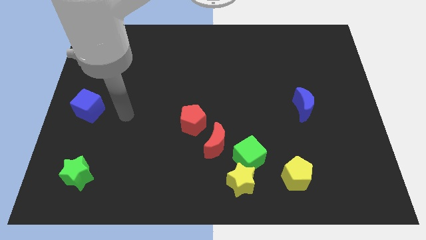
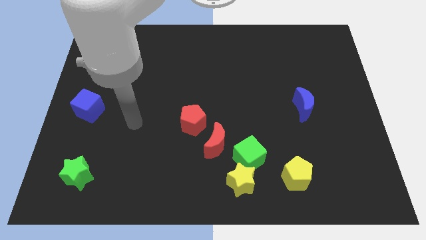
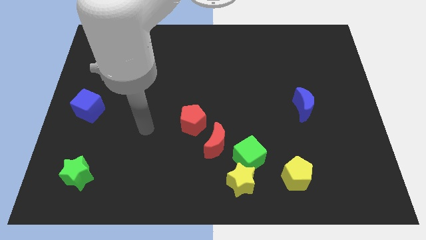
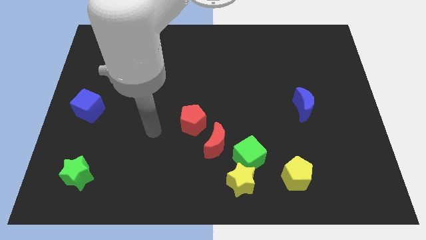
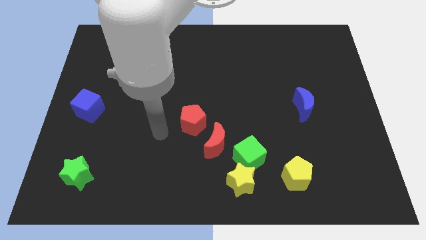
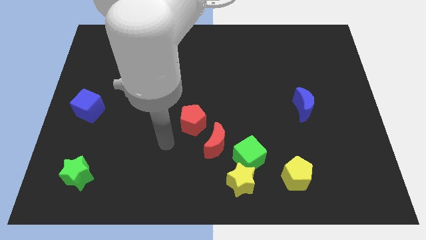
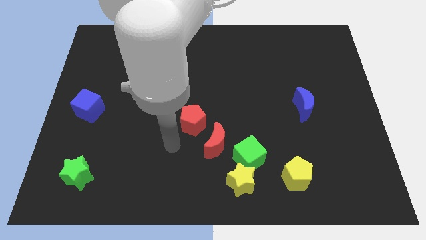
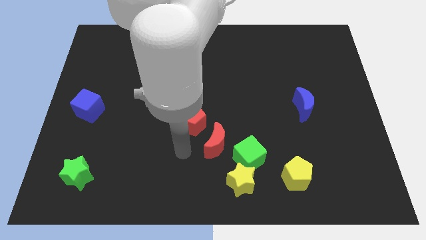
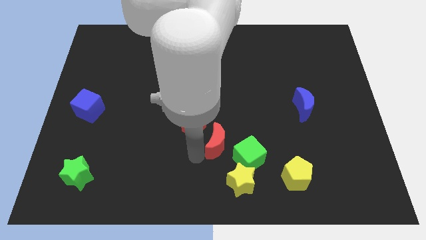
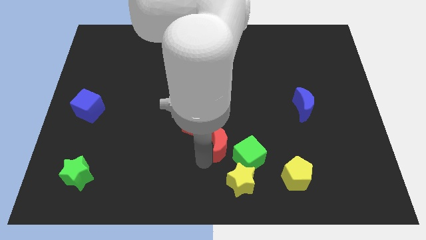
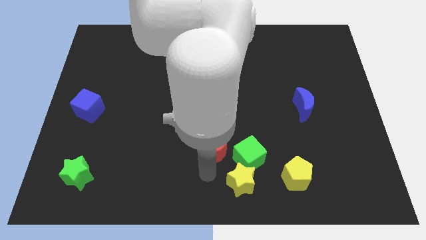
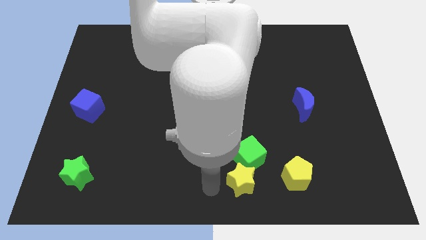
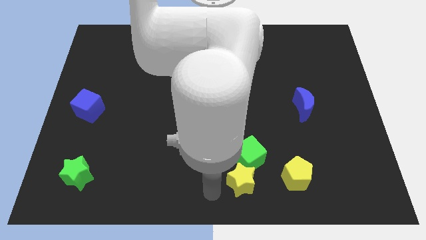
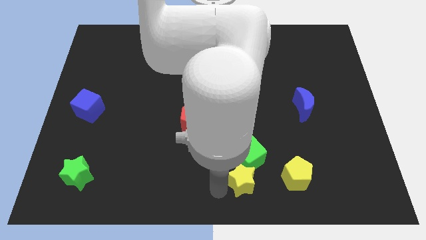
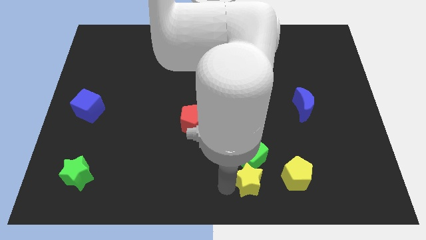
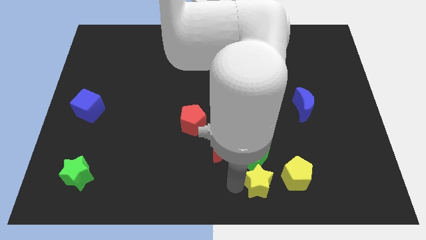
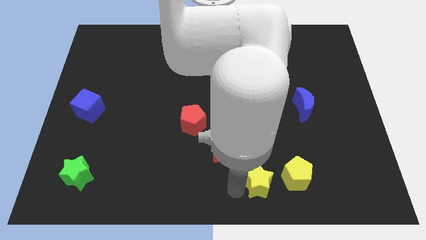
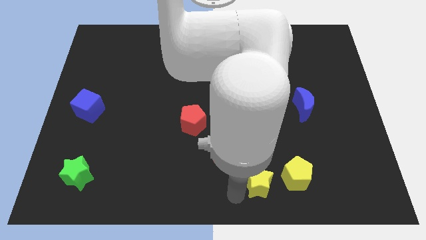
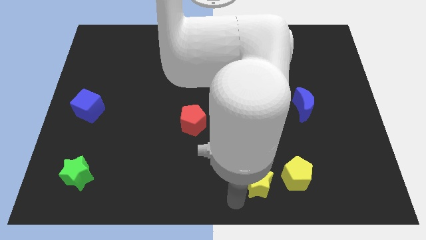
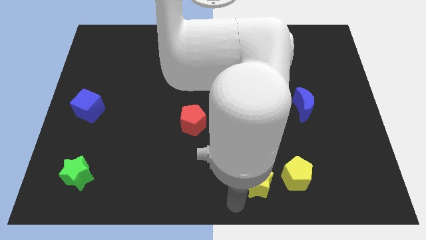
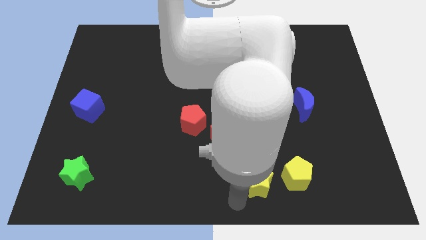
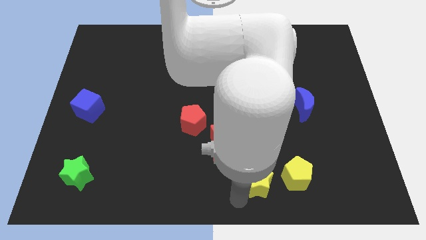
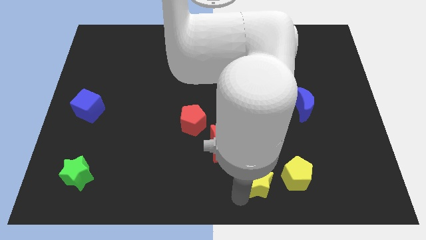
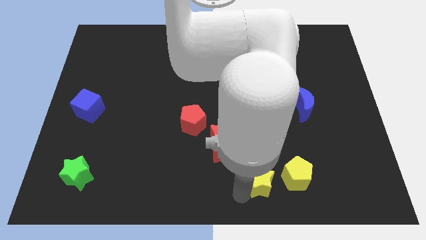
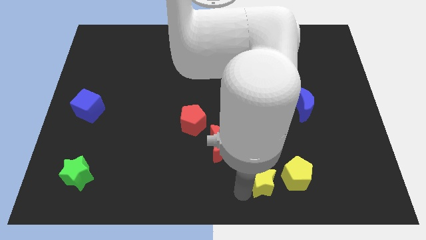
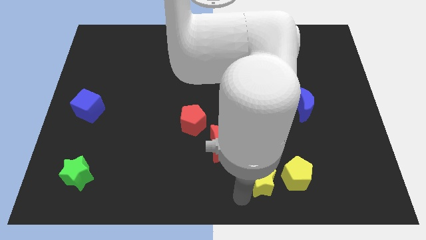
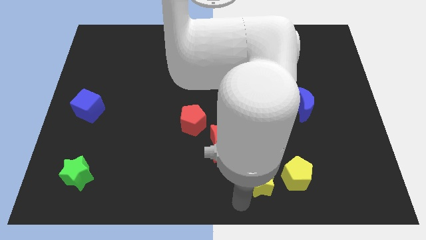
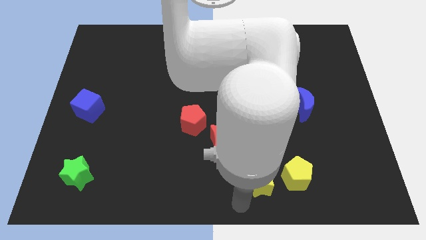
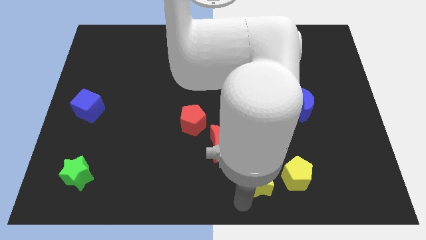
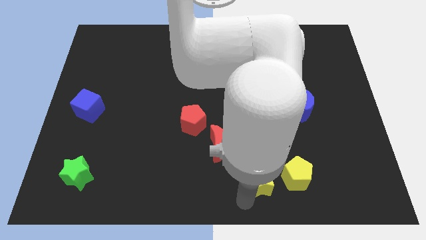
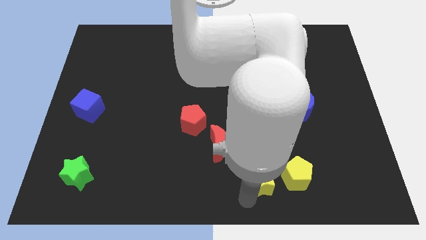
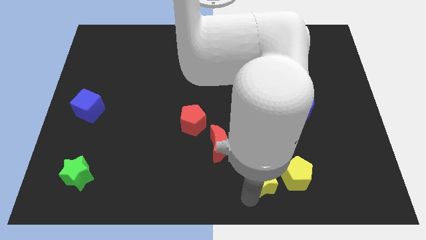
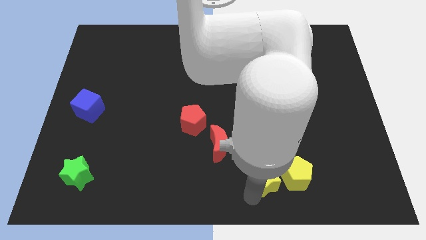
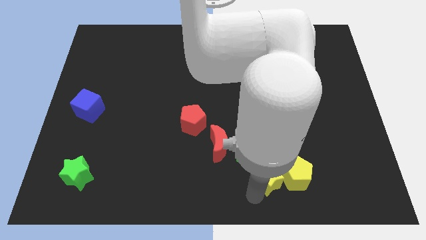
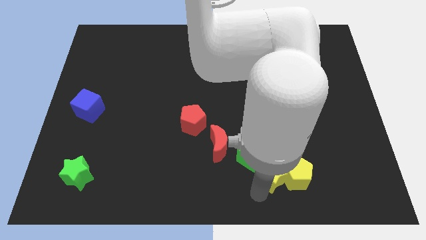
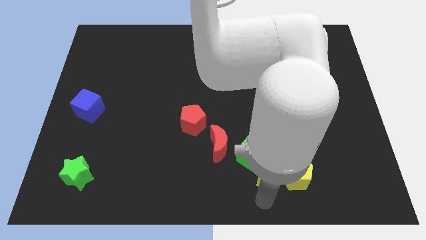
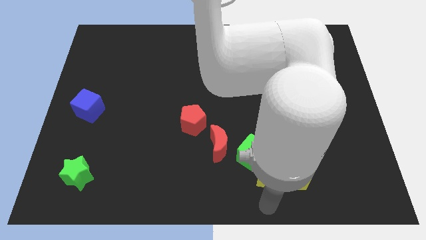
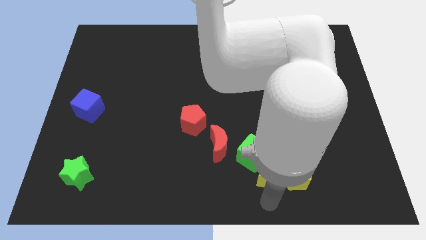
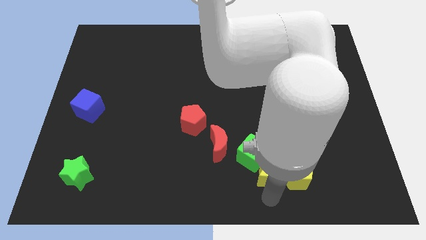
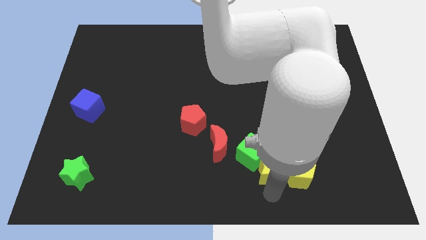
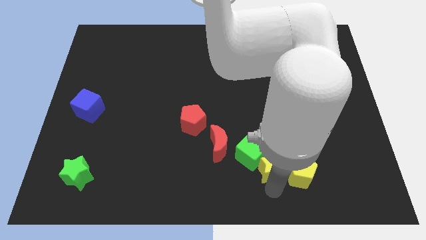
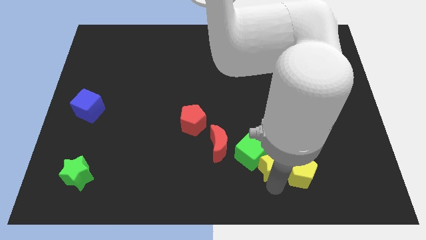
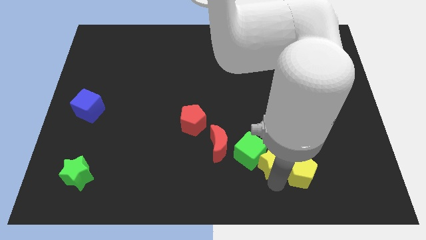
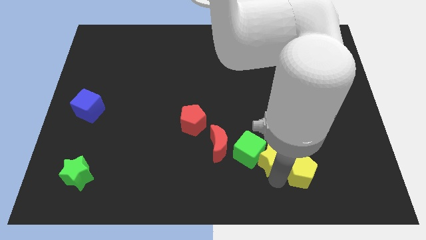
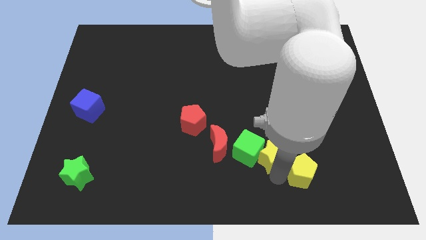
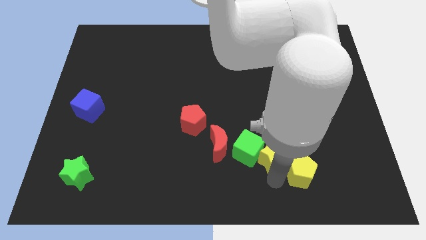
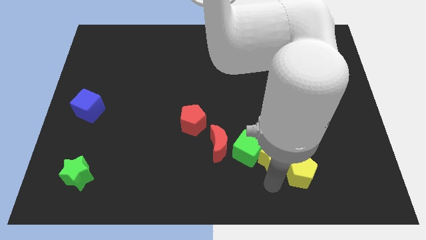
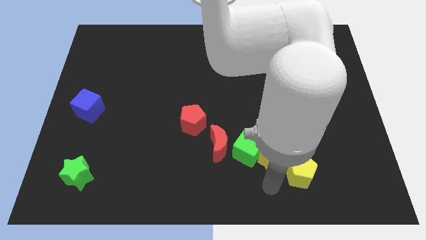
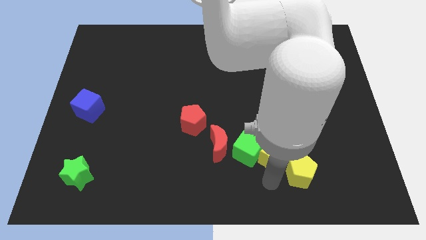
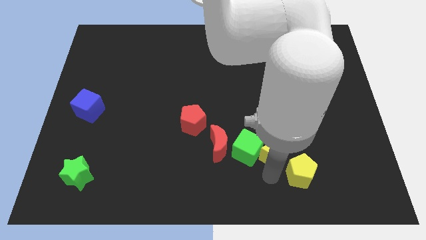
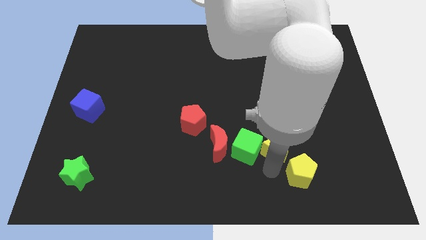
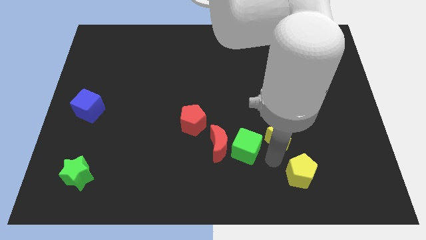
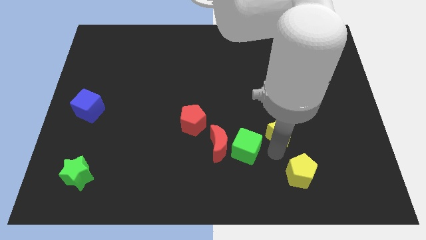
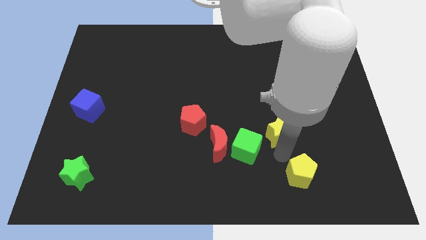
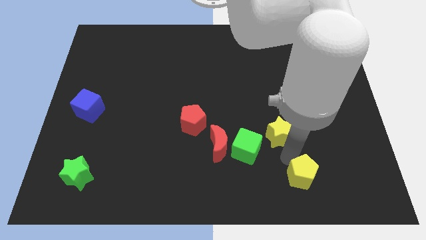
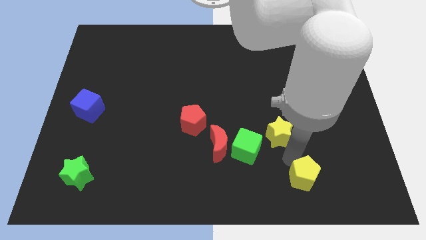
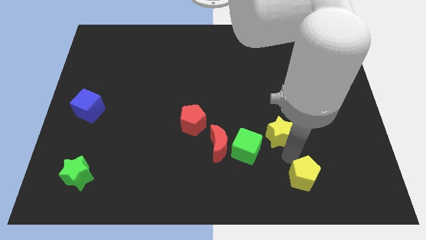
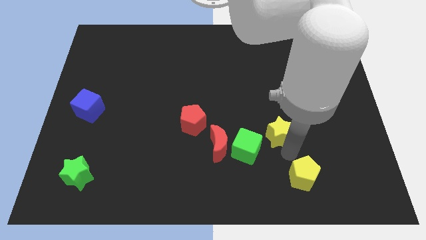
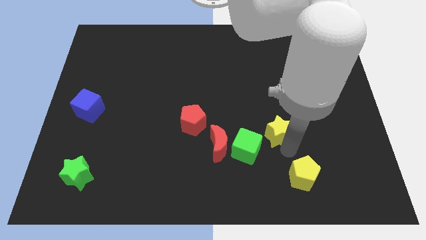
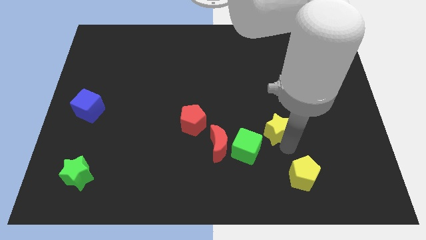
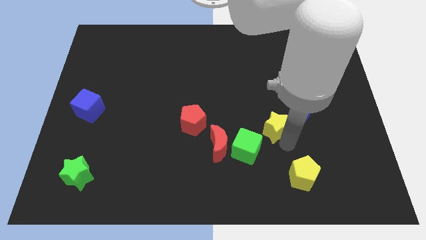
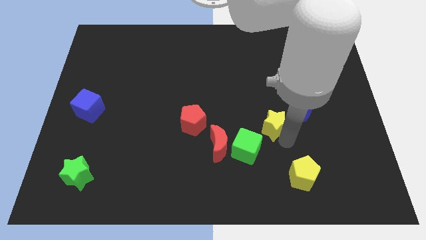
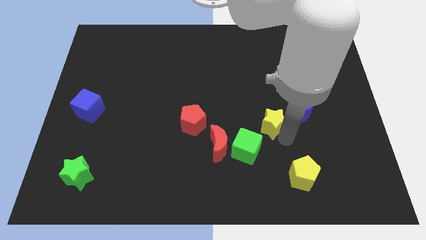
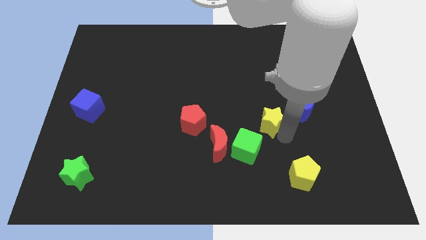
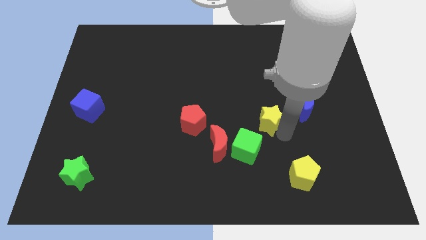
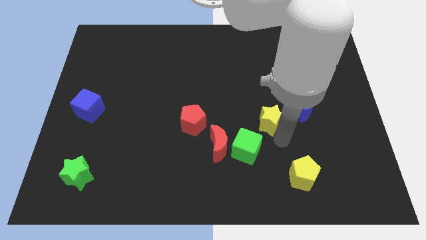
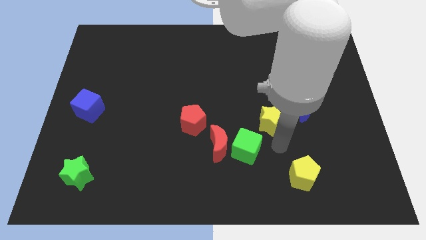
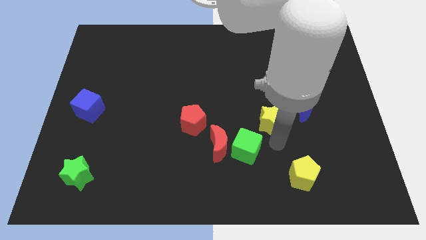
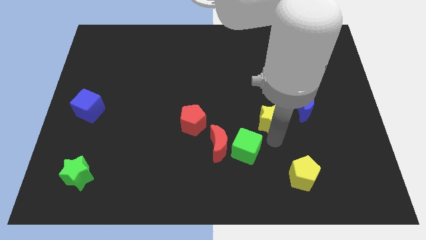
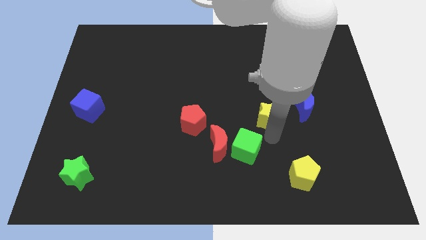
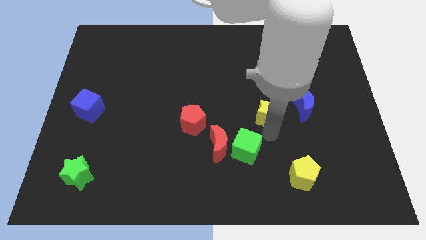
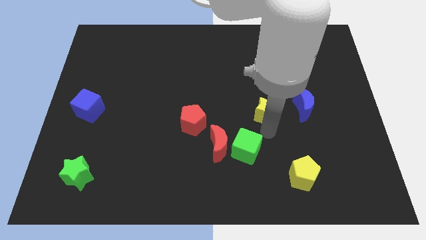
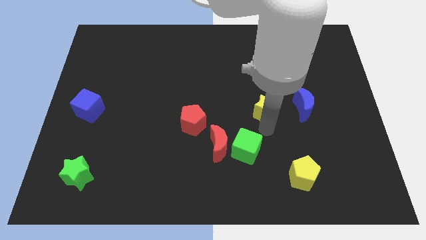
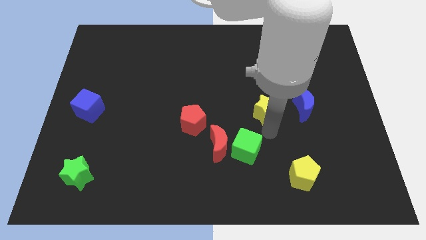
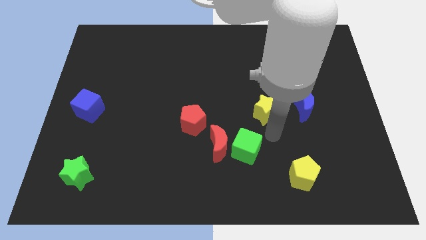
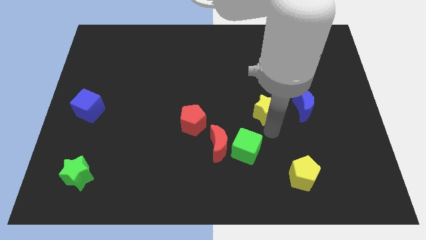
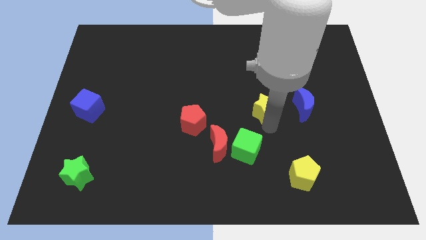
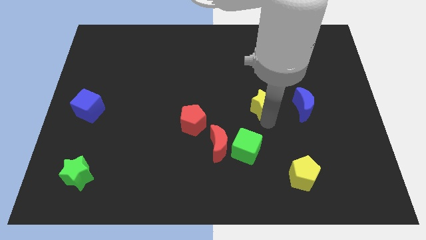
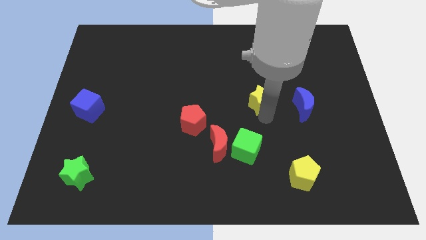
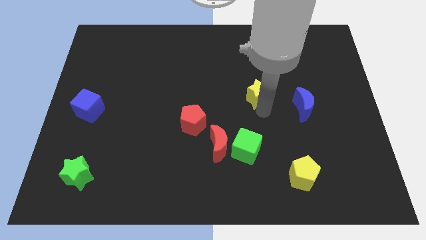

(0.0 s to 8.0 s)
move the yellow star up
